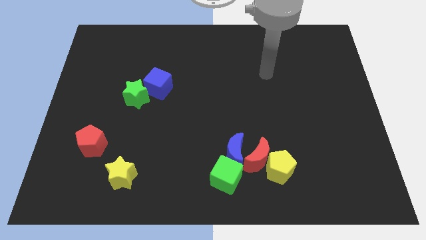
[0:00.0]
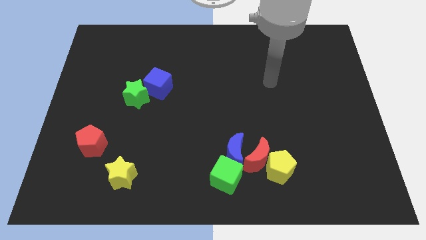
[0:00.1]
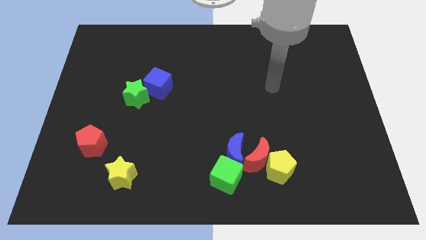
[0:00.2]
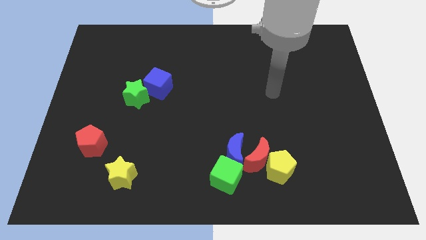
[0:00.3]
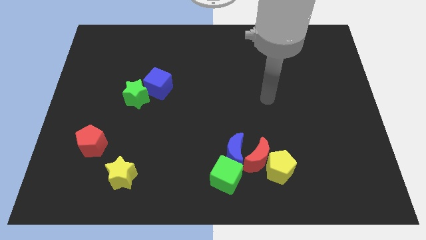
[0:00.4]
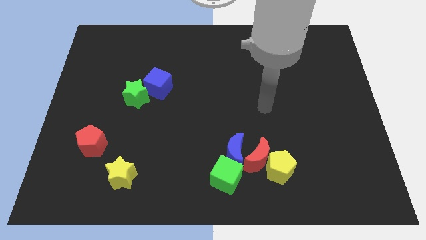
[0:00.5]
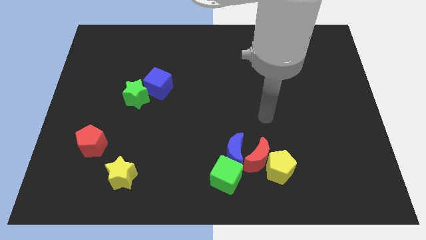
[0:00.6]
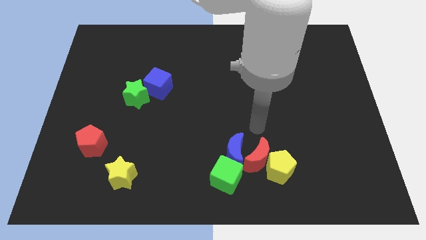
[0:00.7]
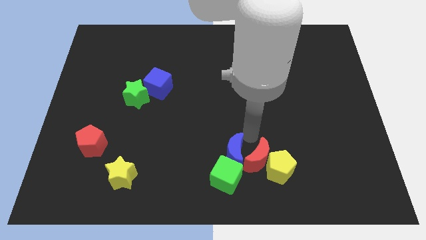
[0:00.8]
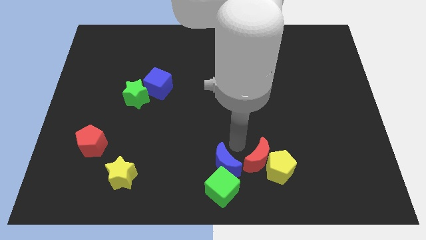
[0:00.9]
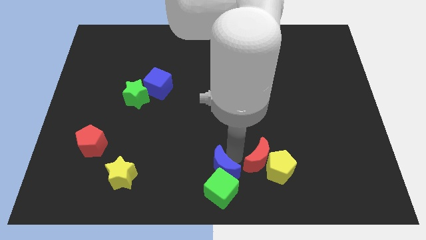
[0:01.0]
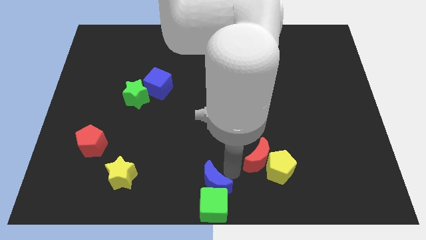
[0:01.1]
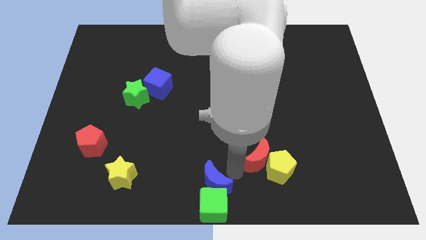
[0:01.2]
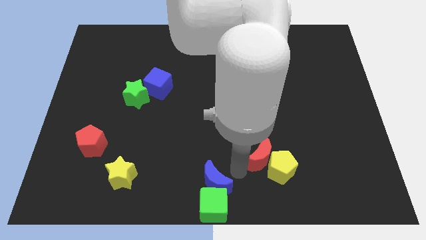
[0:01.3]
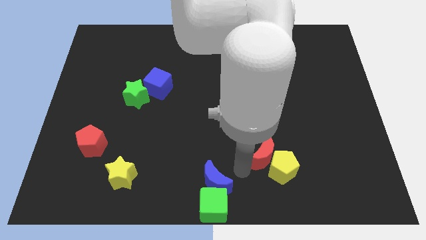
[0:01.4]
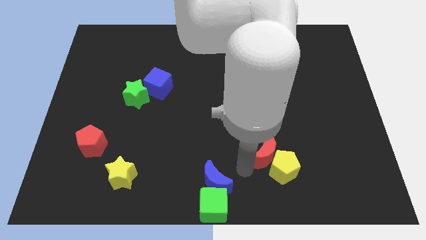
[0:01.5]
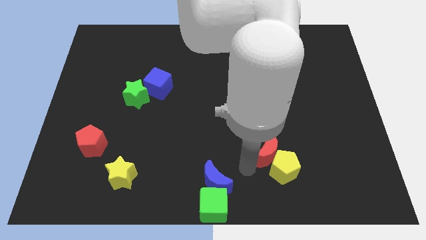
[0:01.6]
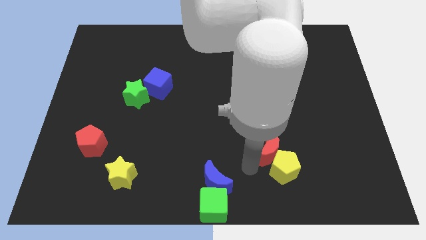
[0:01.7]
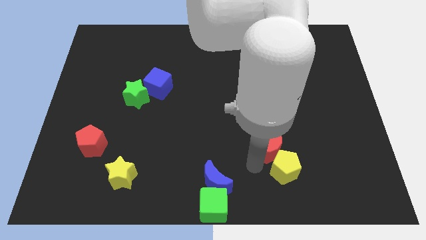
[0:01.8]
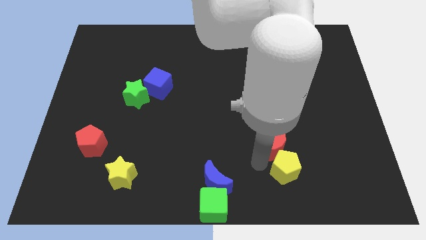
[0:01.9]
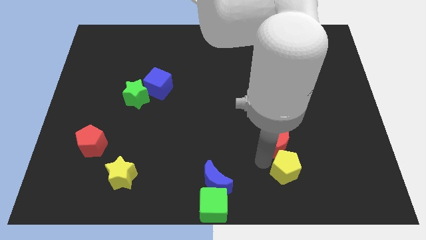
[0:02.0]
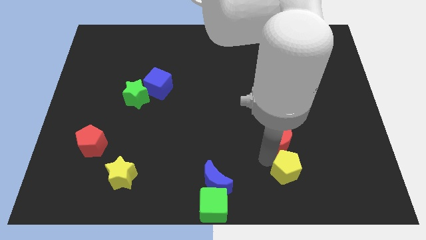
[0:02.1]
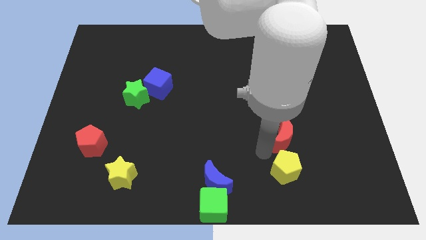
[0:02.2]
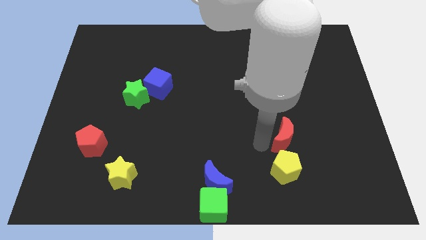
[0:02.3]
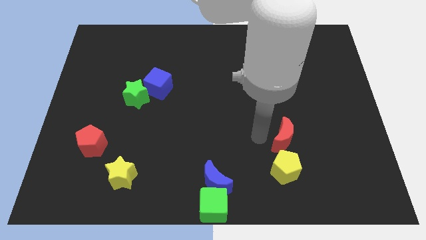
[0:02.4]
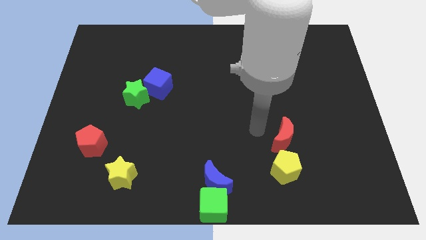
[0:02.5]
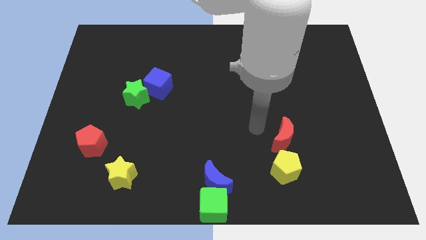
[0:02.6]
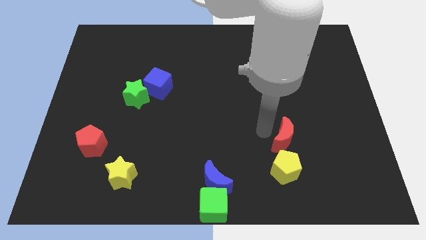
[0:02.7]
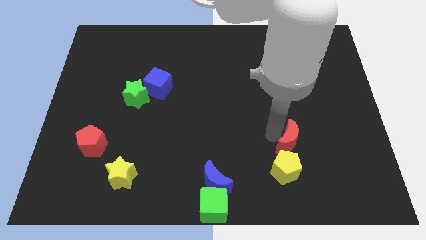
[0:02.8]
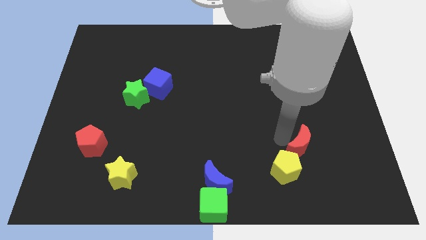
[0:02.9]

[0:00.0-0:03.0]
slide the red moon a little to the right

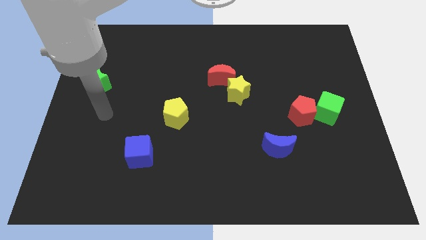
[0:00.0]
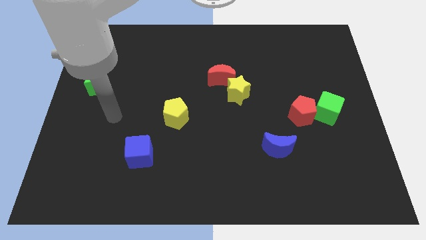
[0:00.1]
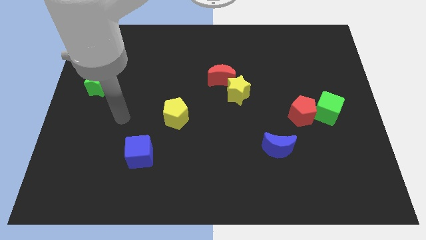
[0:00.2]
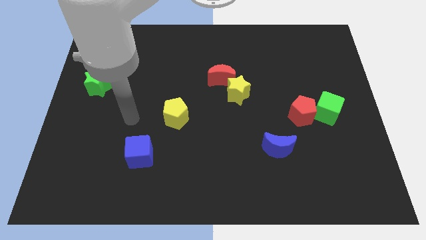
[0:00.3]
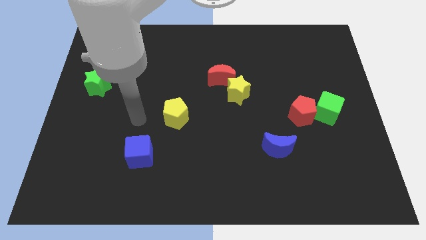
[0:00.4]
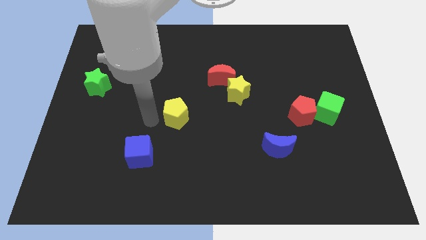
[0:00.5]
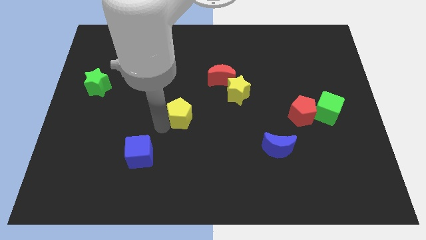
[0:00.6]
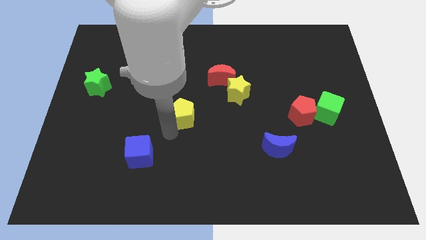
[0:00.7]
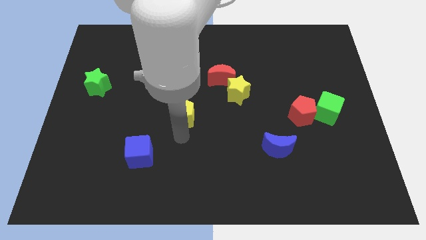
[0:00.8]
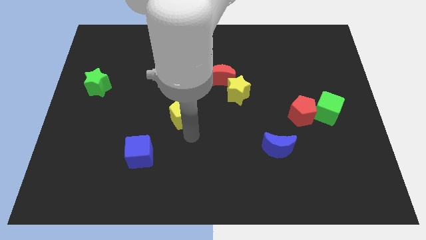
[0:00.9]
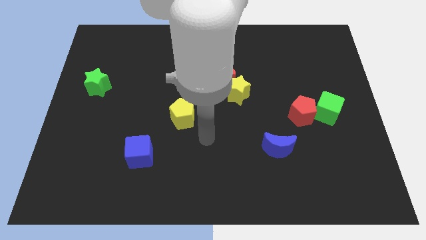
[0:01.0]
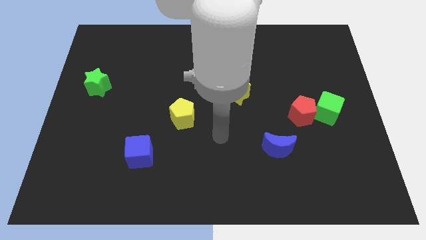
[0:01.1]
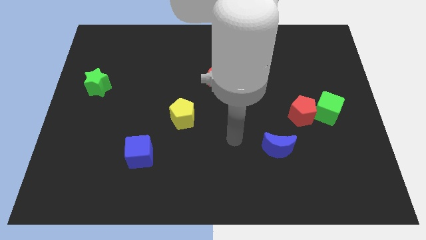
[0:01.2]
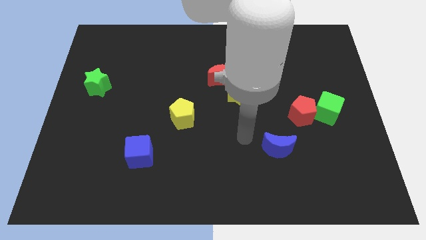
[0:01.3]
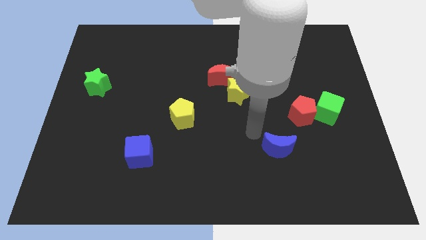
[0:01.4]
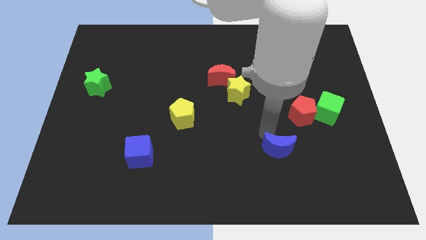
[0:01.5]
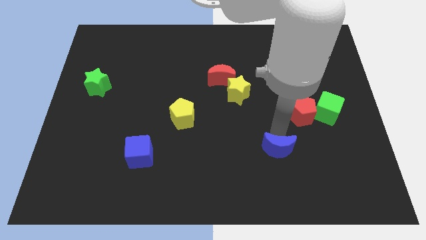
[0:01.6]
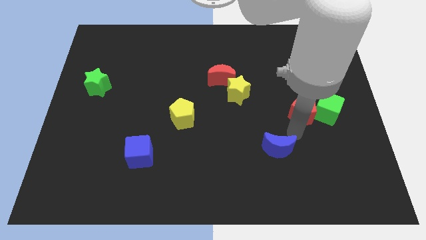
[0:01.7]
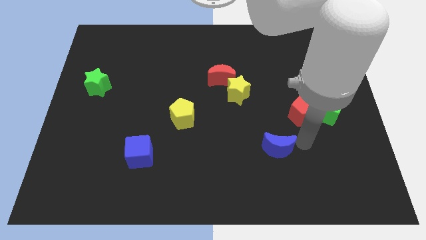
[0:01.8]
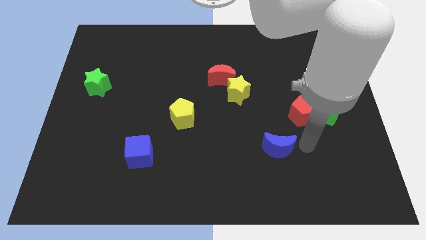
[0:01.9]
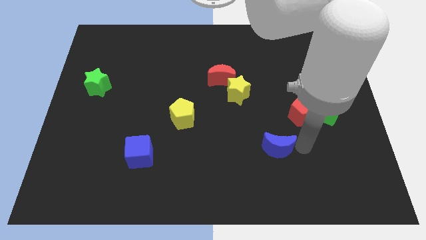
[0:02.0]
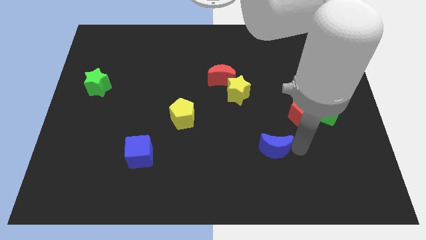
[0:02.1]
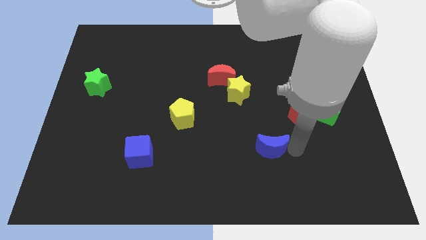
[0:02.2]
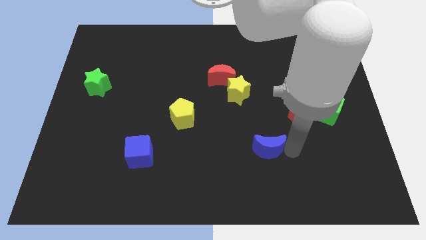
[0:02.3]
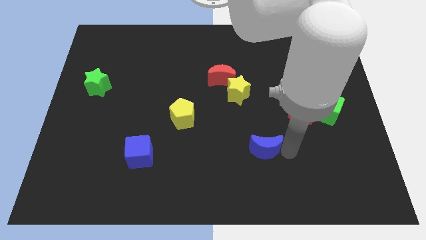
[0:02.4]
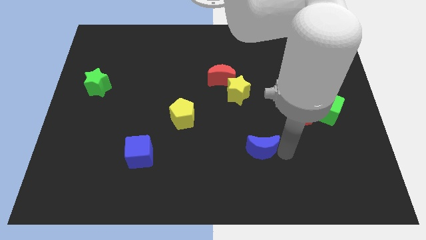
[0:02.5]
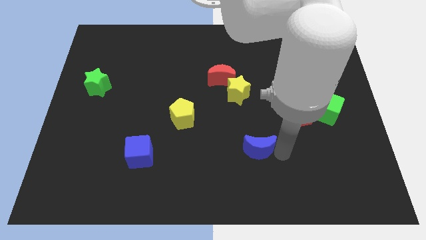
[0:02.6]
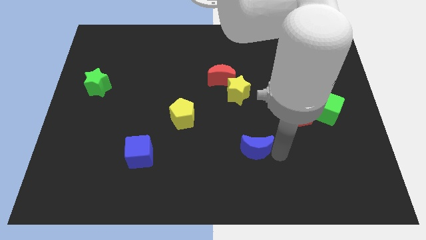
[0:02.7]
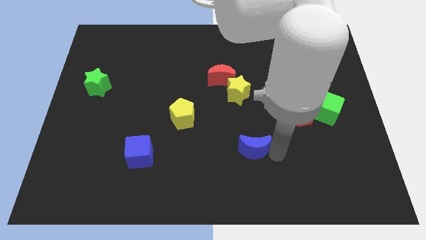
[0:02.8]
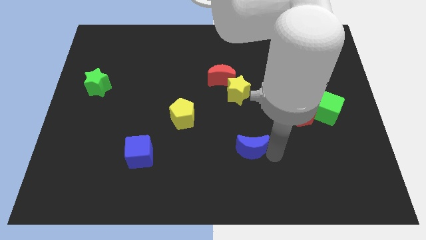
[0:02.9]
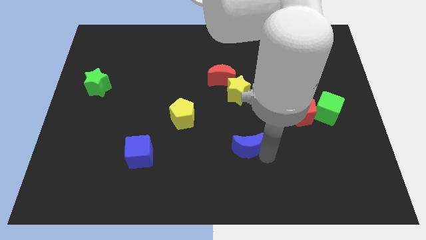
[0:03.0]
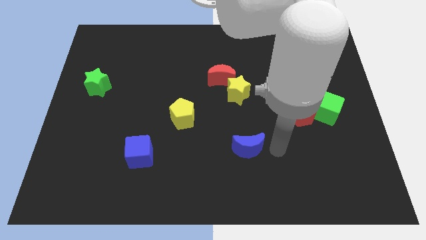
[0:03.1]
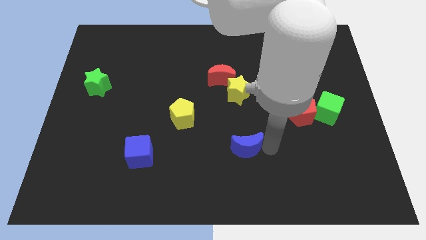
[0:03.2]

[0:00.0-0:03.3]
slightly push the blue moon left

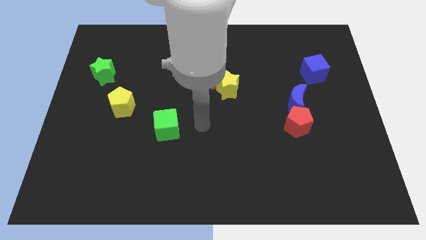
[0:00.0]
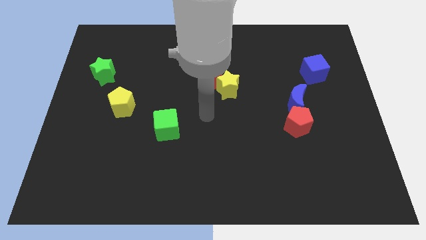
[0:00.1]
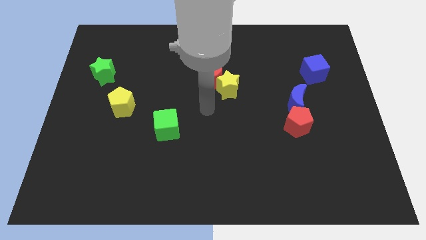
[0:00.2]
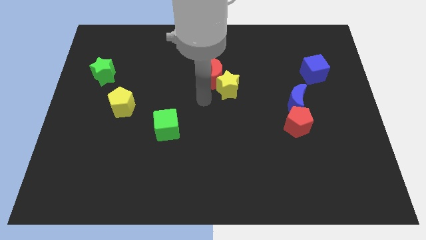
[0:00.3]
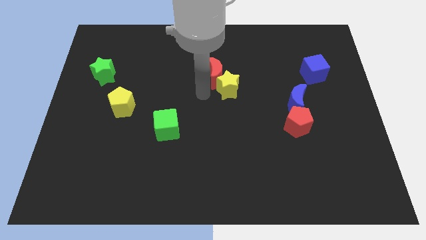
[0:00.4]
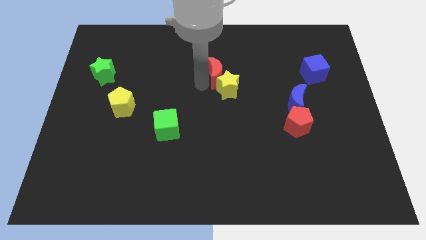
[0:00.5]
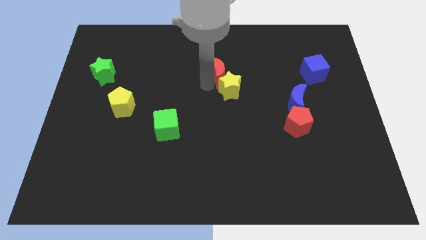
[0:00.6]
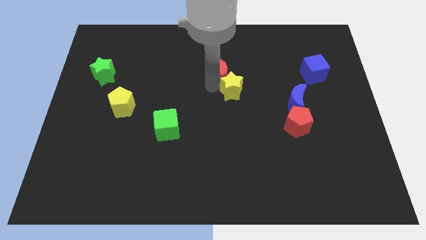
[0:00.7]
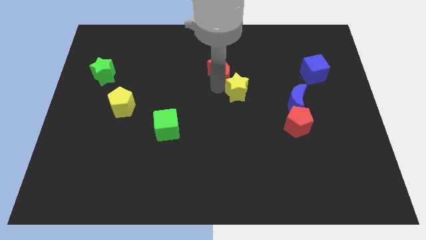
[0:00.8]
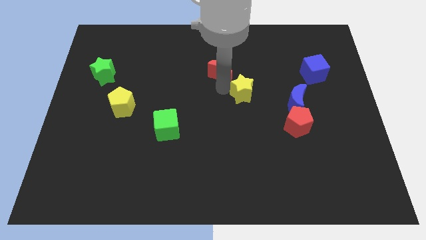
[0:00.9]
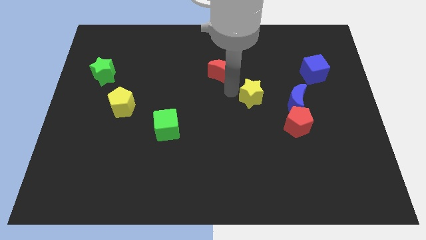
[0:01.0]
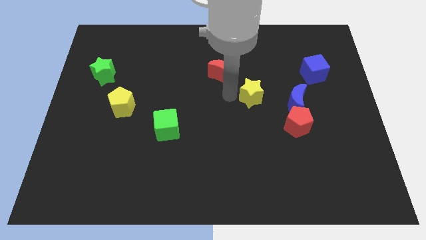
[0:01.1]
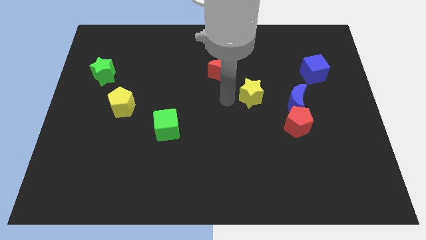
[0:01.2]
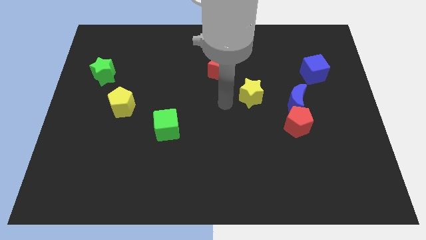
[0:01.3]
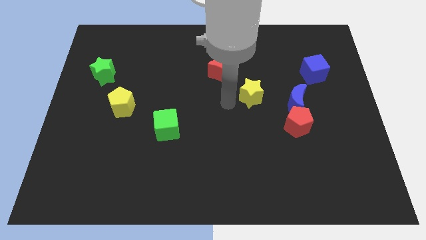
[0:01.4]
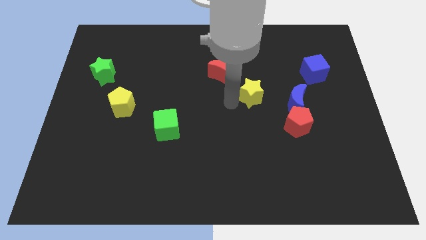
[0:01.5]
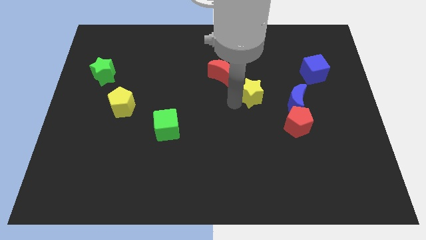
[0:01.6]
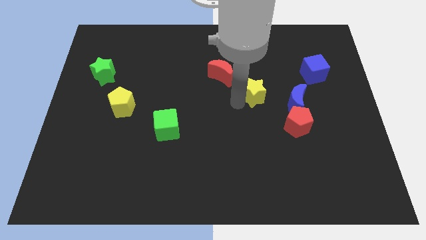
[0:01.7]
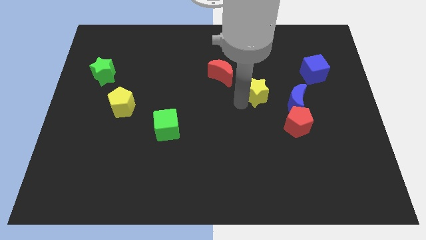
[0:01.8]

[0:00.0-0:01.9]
slightly push the yellow star right
